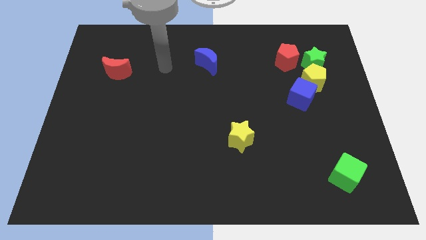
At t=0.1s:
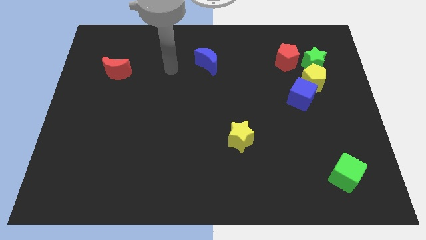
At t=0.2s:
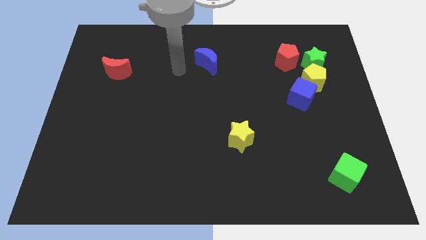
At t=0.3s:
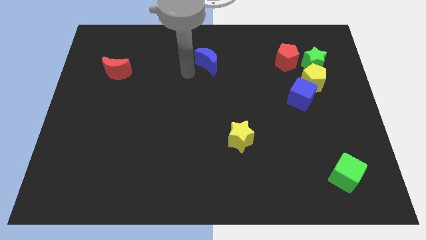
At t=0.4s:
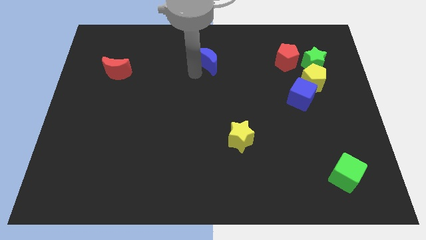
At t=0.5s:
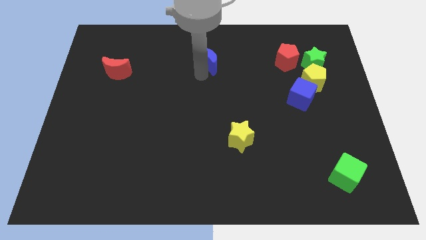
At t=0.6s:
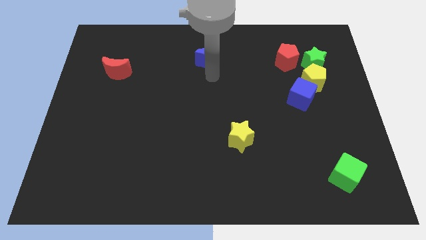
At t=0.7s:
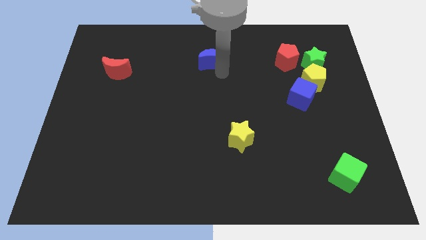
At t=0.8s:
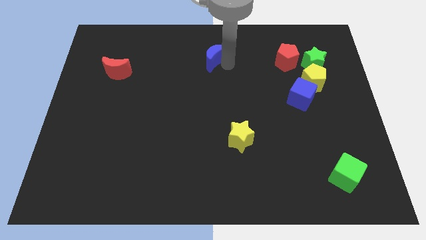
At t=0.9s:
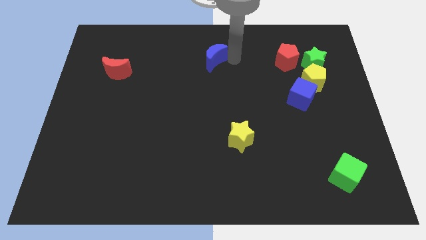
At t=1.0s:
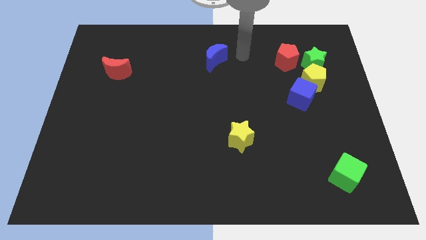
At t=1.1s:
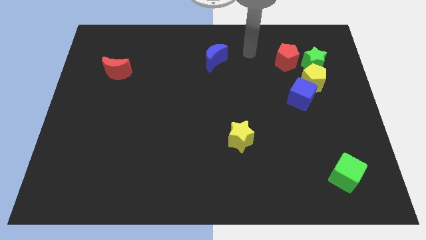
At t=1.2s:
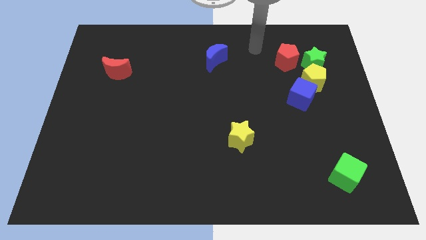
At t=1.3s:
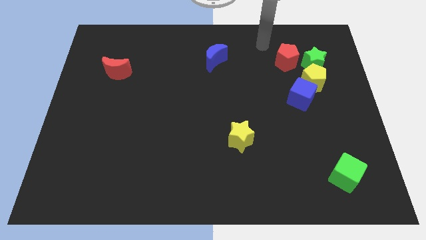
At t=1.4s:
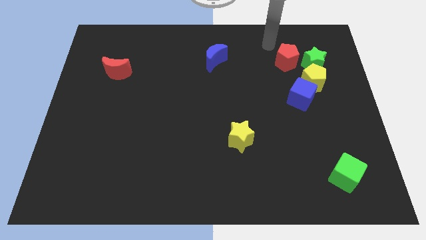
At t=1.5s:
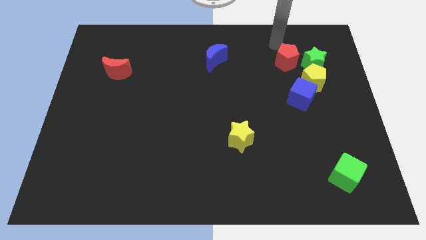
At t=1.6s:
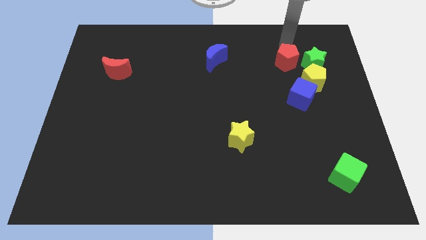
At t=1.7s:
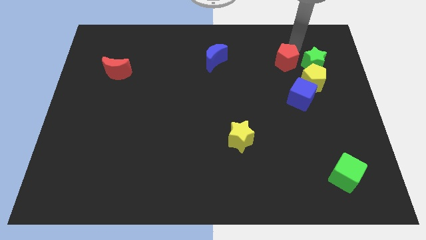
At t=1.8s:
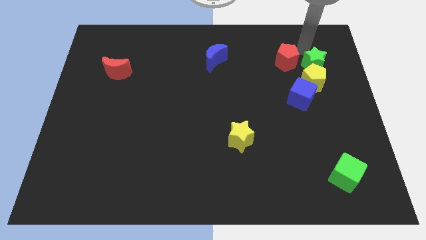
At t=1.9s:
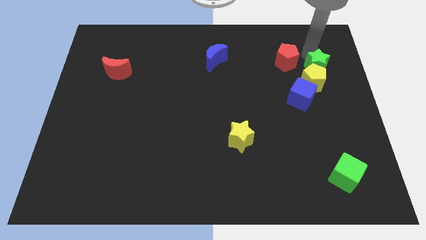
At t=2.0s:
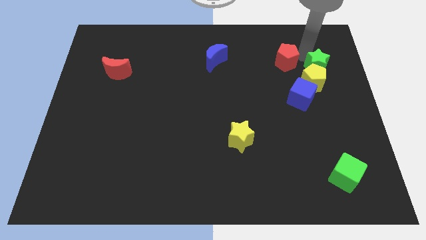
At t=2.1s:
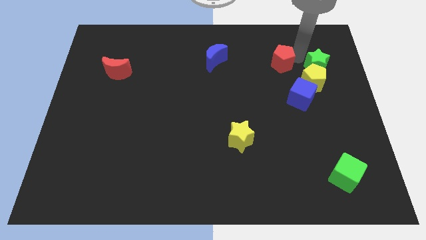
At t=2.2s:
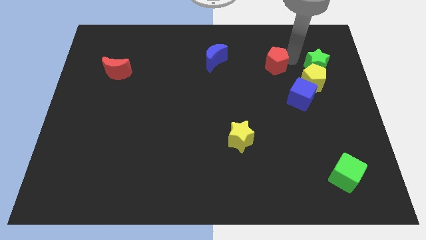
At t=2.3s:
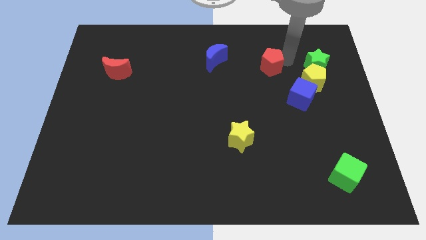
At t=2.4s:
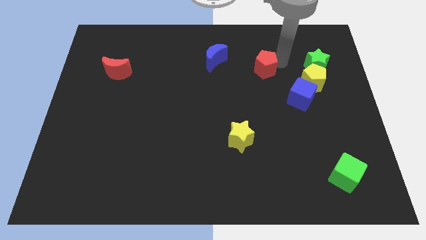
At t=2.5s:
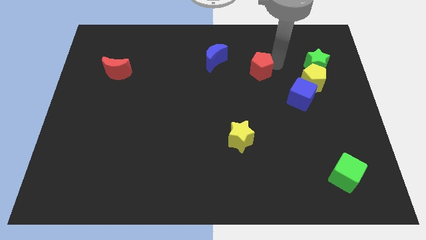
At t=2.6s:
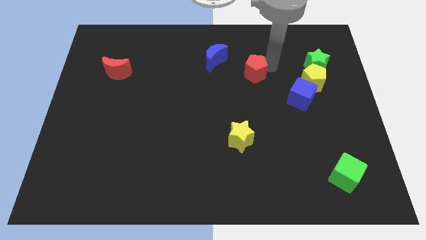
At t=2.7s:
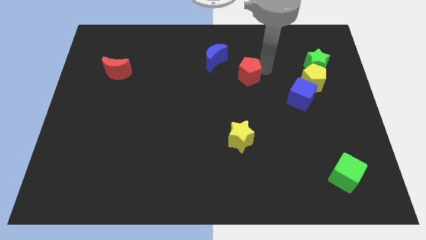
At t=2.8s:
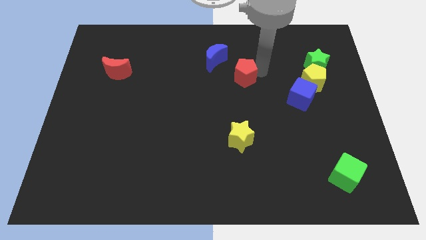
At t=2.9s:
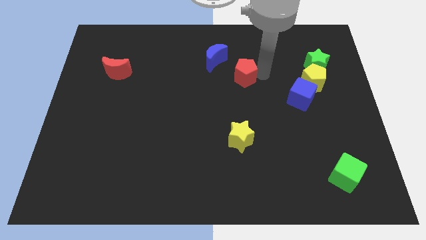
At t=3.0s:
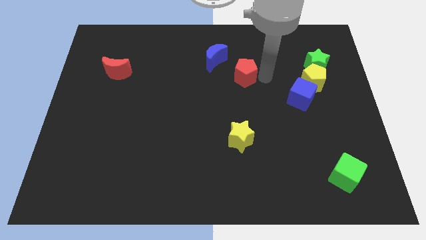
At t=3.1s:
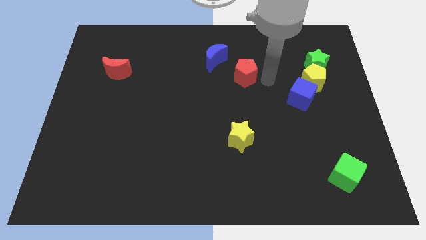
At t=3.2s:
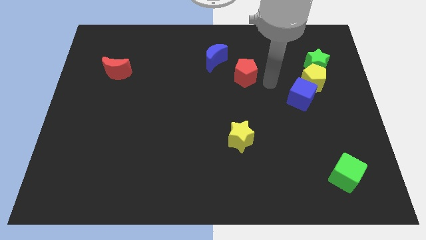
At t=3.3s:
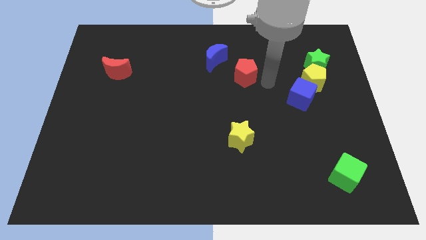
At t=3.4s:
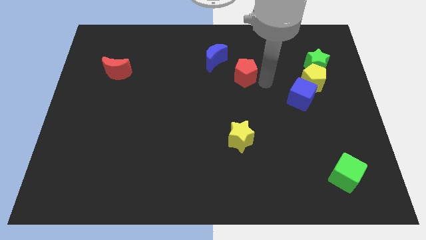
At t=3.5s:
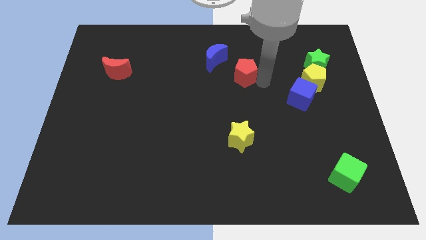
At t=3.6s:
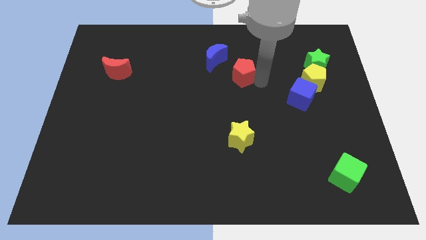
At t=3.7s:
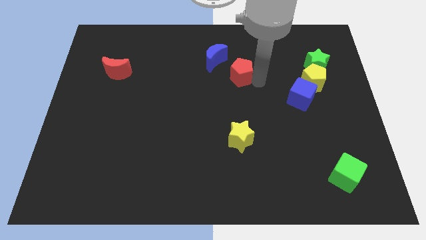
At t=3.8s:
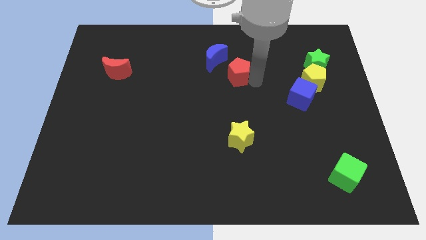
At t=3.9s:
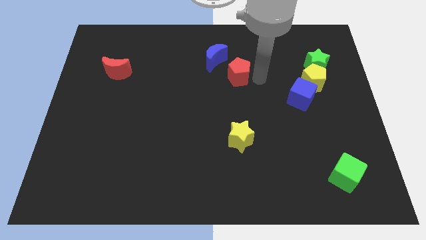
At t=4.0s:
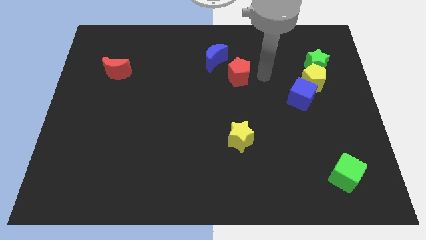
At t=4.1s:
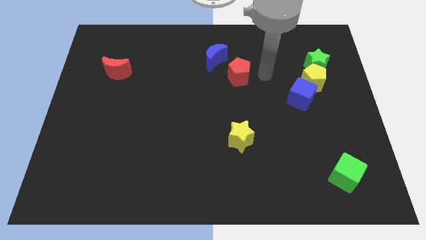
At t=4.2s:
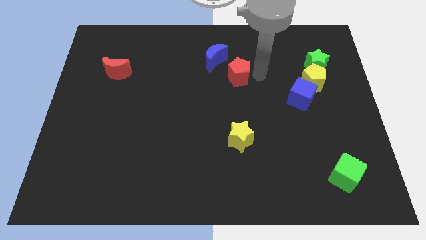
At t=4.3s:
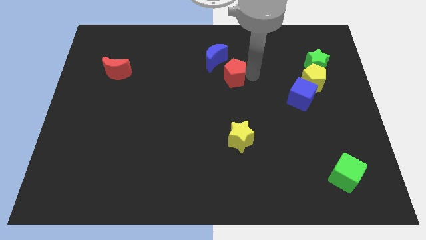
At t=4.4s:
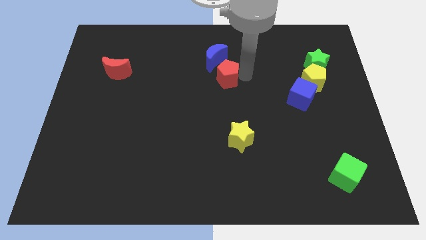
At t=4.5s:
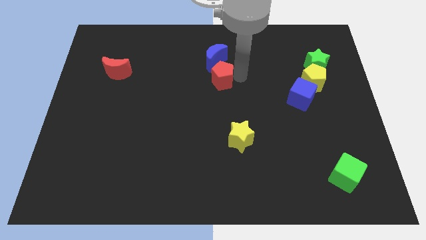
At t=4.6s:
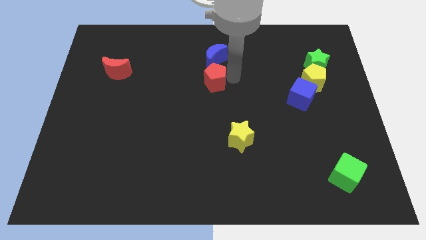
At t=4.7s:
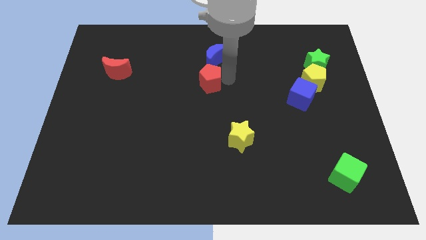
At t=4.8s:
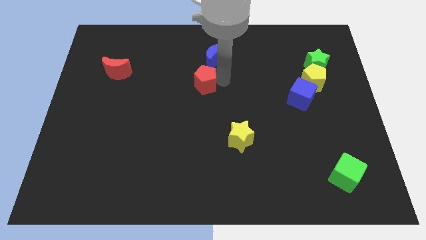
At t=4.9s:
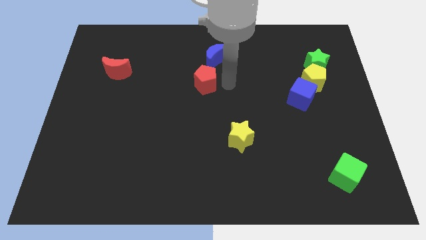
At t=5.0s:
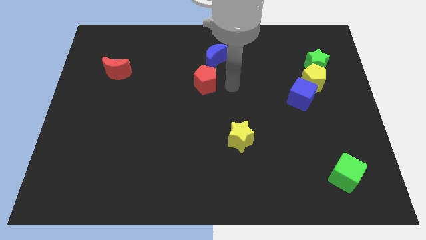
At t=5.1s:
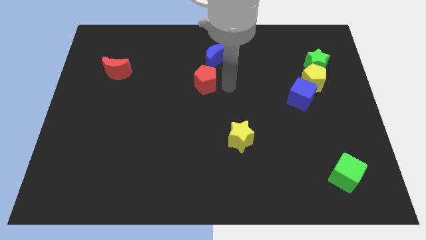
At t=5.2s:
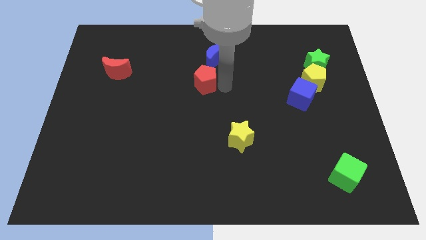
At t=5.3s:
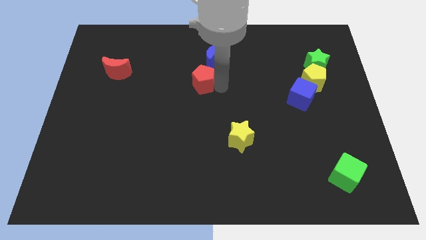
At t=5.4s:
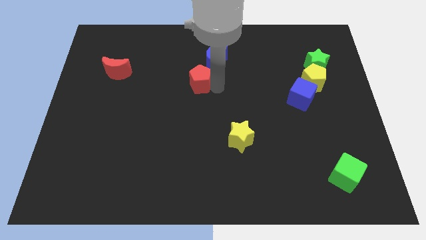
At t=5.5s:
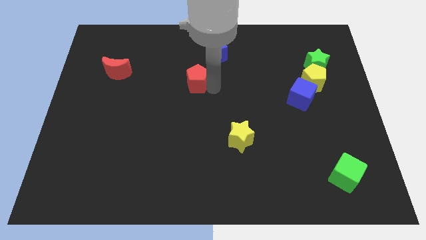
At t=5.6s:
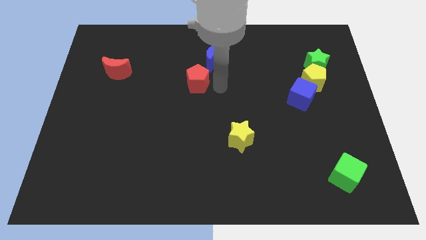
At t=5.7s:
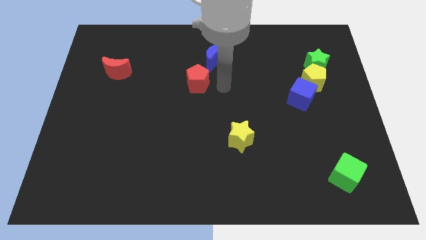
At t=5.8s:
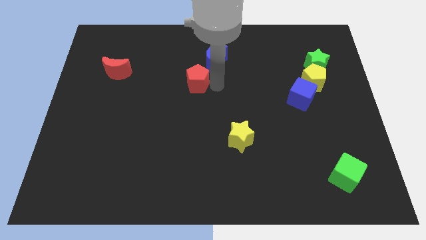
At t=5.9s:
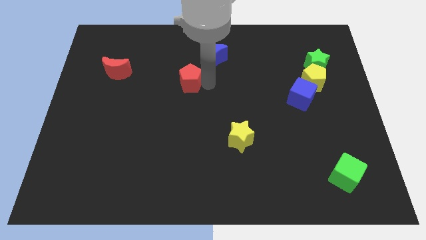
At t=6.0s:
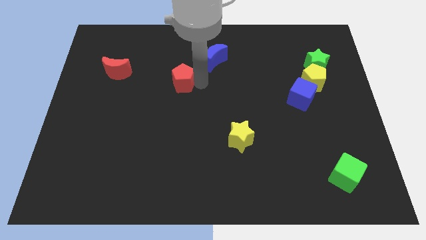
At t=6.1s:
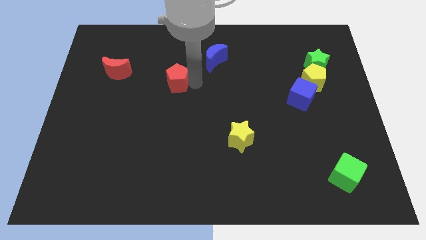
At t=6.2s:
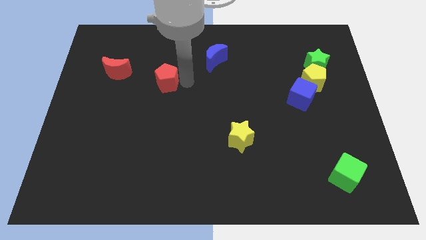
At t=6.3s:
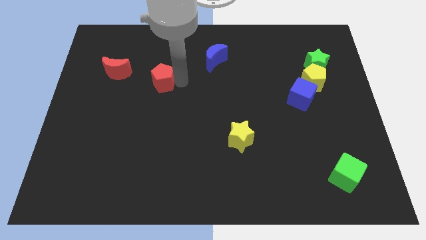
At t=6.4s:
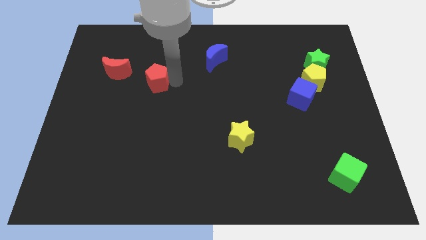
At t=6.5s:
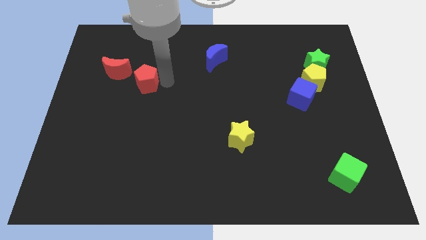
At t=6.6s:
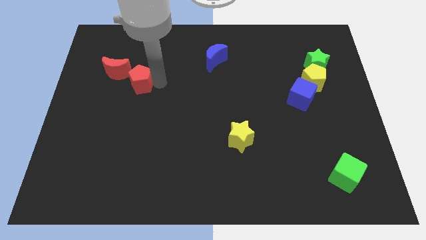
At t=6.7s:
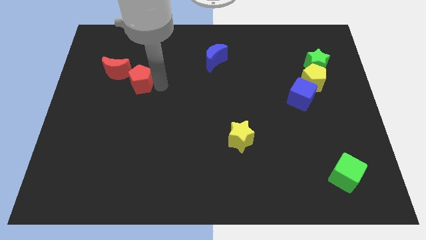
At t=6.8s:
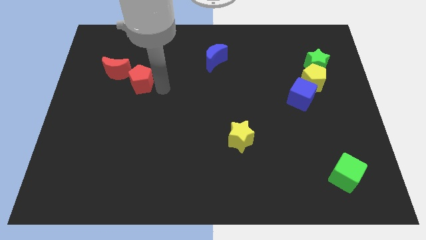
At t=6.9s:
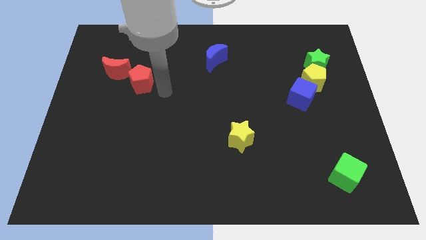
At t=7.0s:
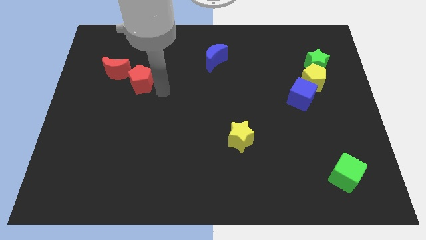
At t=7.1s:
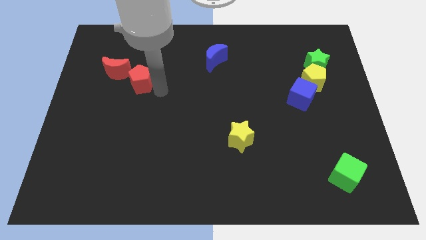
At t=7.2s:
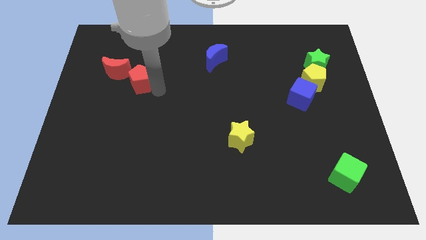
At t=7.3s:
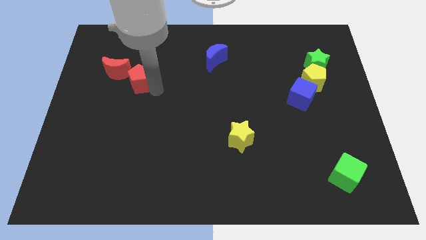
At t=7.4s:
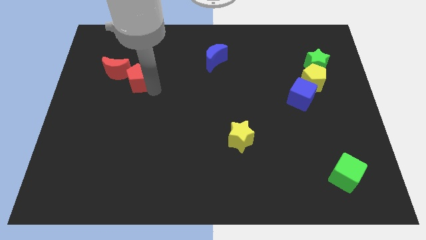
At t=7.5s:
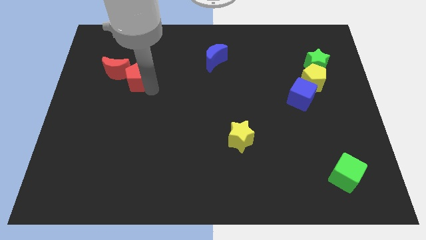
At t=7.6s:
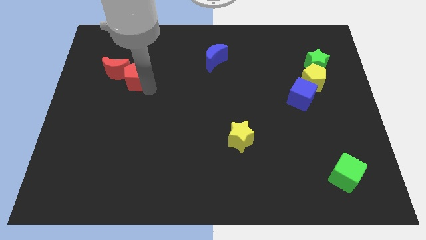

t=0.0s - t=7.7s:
slide the red pentagon next to the red moon
